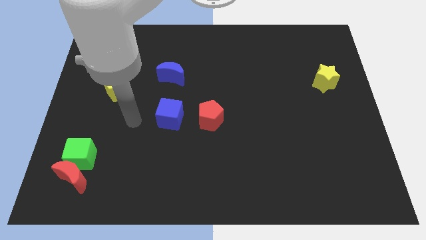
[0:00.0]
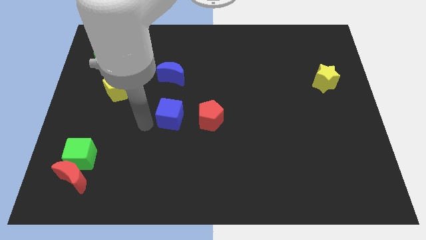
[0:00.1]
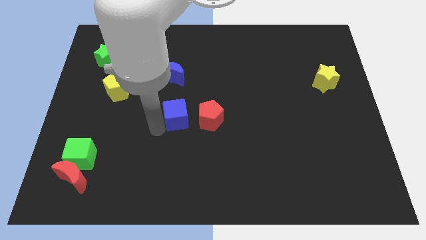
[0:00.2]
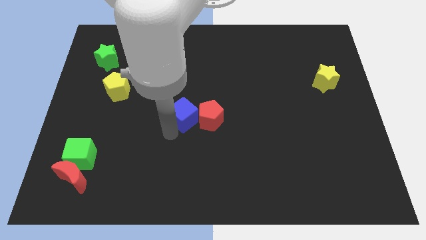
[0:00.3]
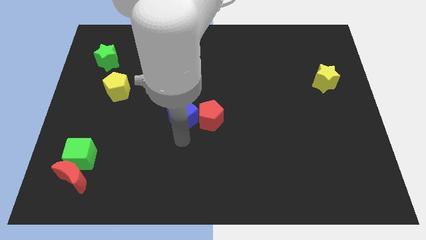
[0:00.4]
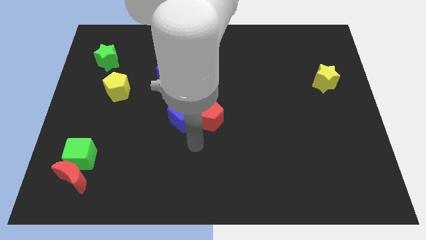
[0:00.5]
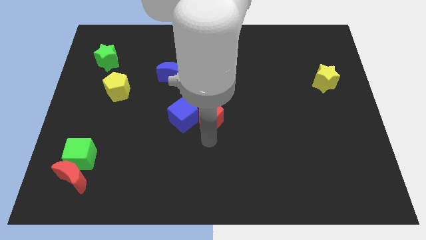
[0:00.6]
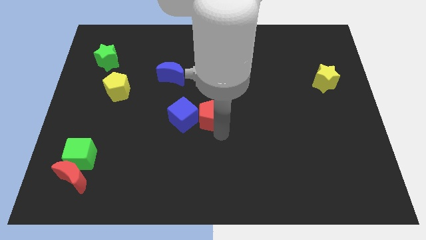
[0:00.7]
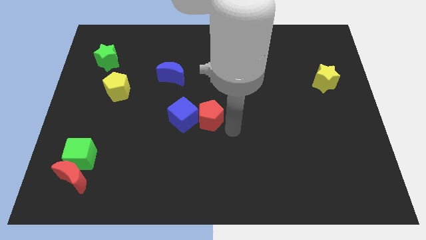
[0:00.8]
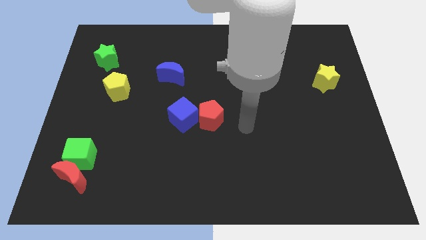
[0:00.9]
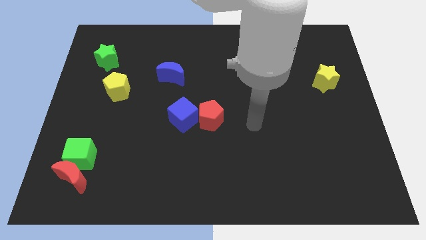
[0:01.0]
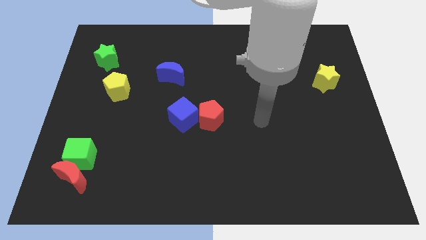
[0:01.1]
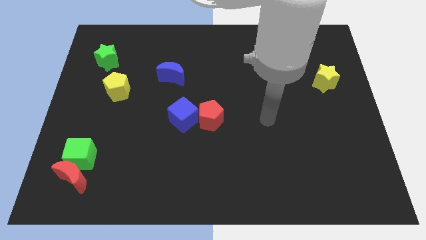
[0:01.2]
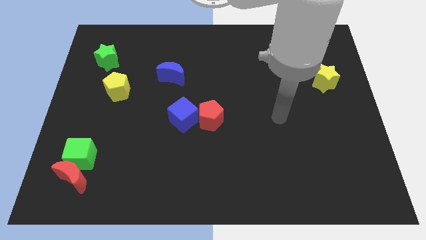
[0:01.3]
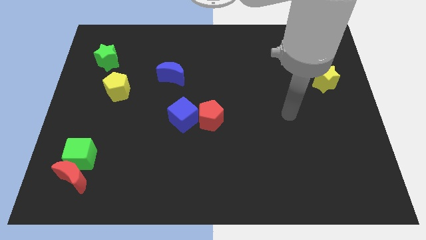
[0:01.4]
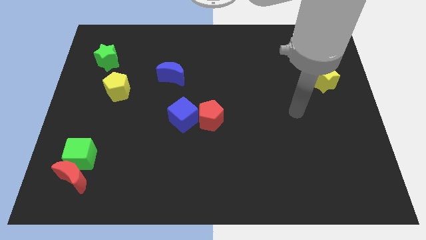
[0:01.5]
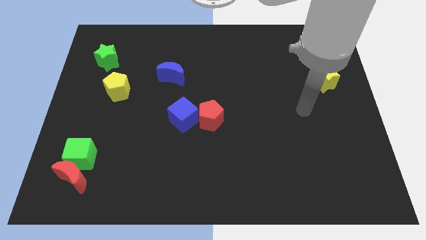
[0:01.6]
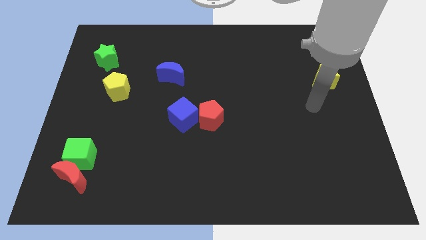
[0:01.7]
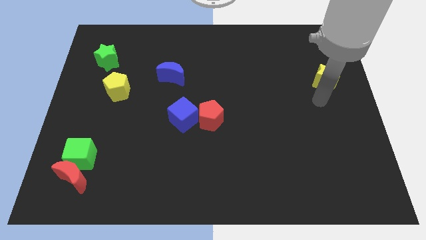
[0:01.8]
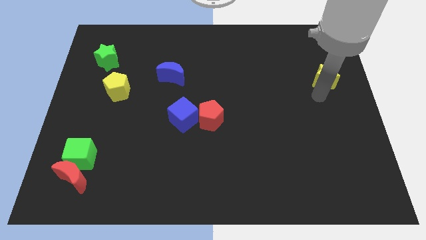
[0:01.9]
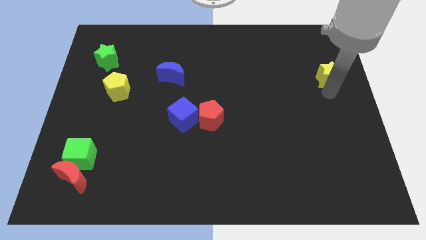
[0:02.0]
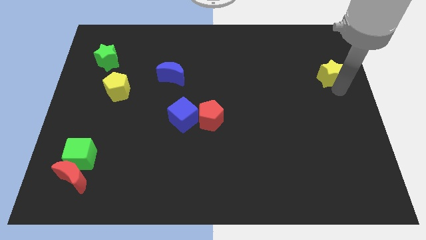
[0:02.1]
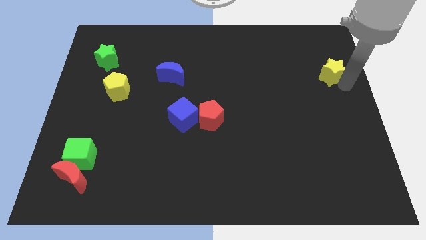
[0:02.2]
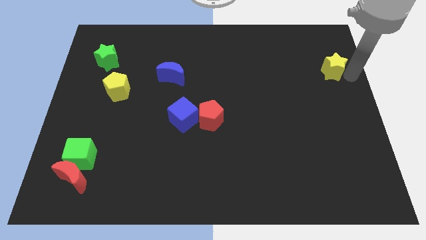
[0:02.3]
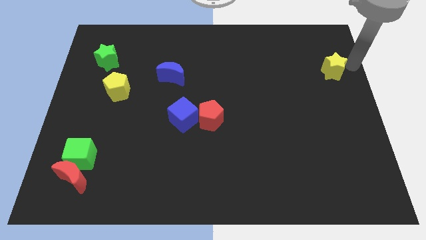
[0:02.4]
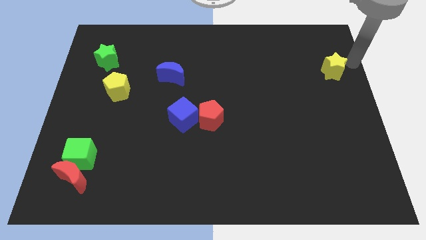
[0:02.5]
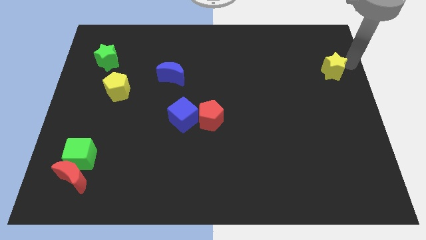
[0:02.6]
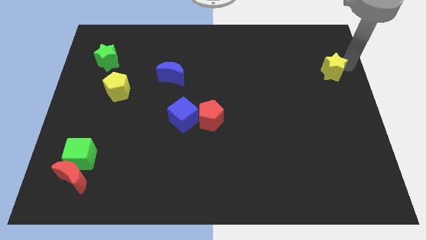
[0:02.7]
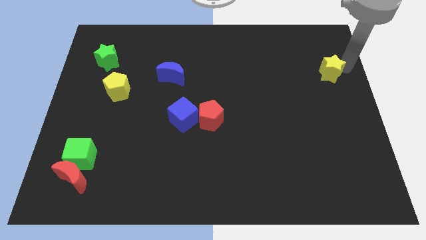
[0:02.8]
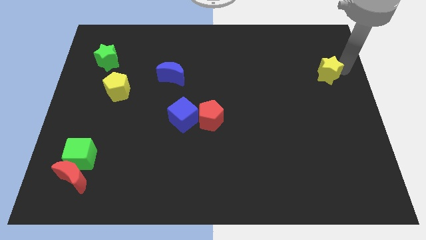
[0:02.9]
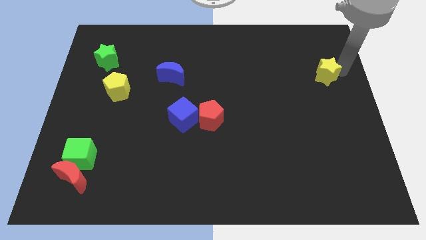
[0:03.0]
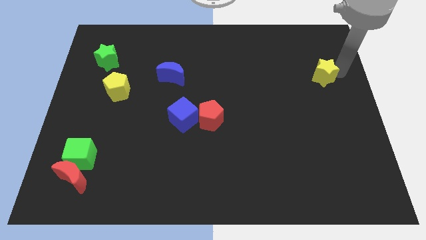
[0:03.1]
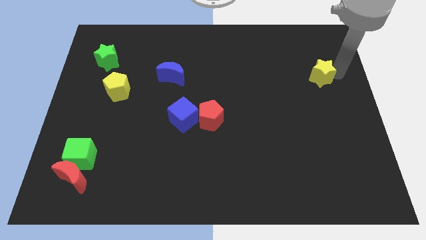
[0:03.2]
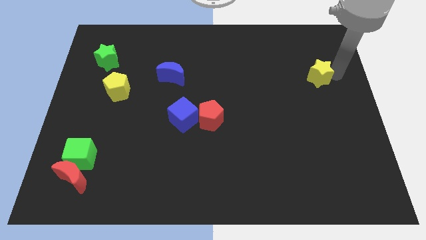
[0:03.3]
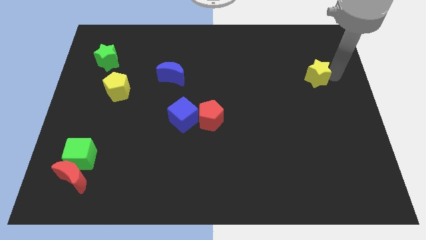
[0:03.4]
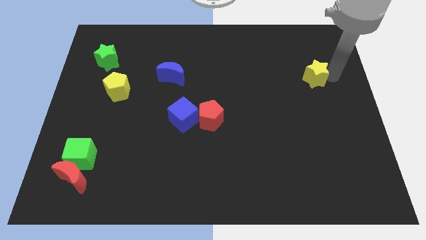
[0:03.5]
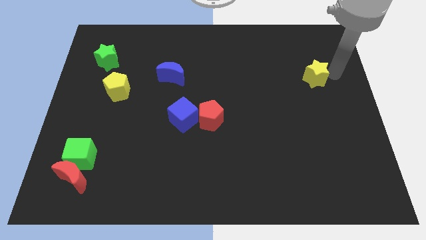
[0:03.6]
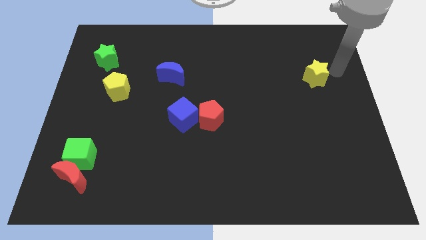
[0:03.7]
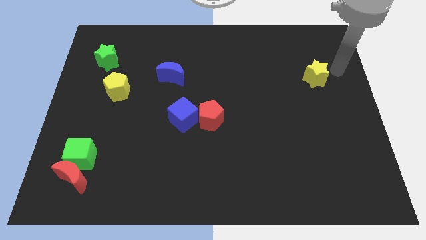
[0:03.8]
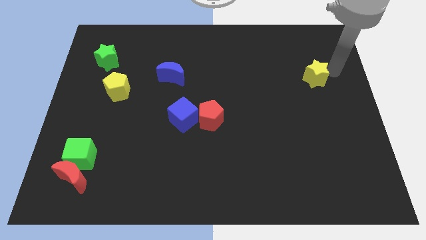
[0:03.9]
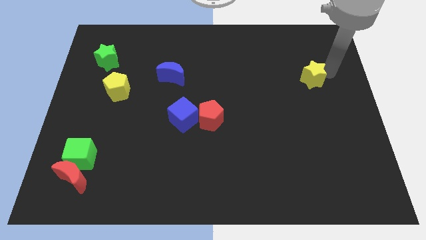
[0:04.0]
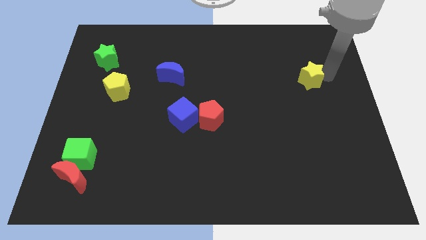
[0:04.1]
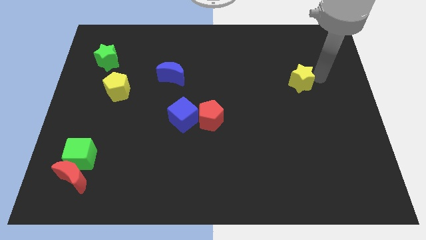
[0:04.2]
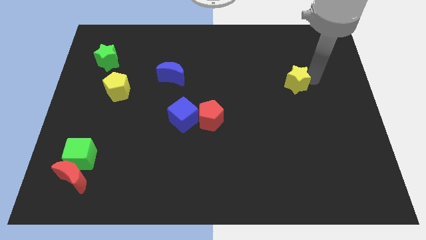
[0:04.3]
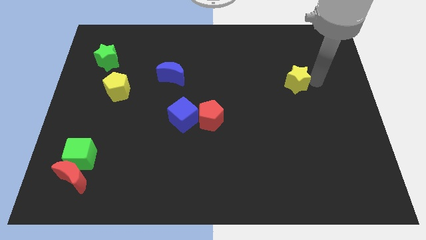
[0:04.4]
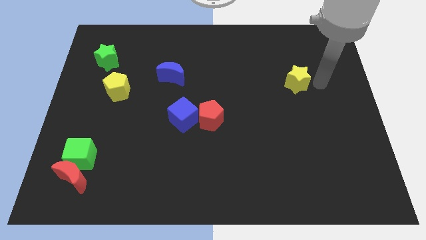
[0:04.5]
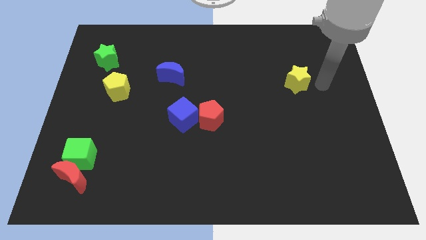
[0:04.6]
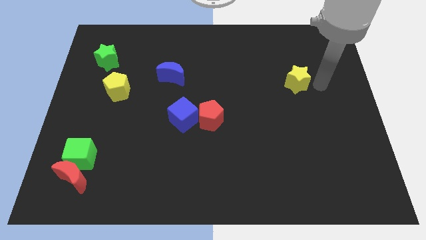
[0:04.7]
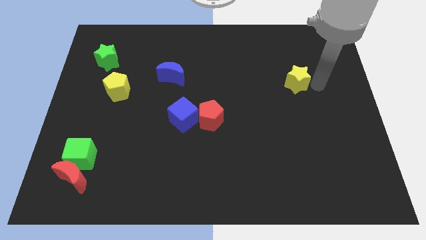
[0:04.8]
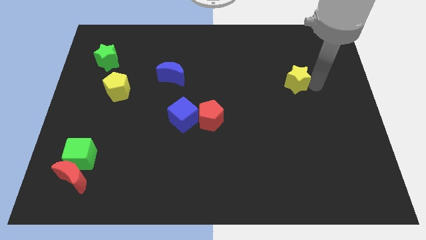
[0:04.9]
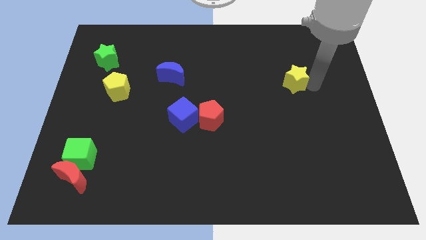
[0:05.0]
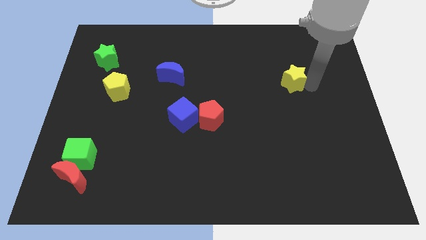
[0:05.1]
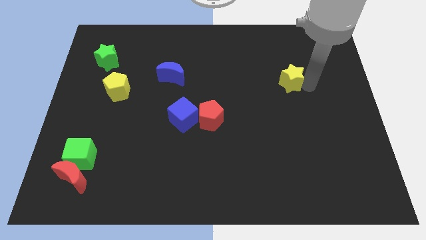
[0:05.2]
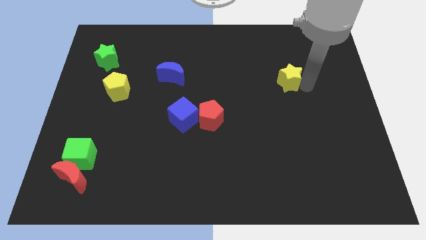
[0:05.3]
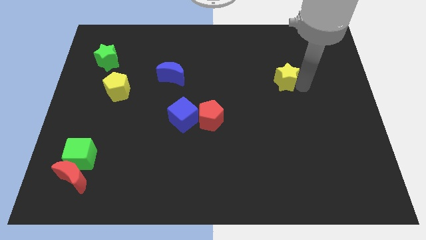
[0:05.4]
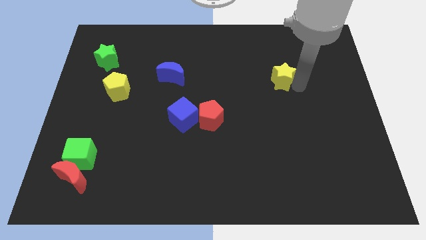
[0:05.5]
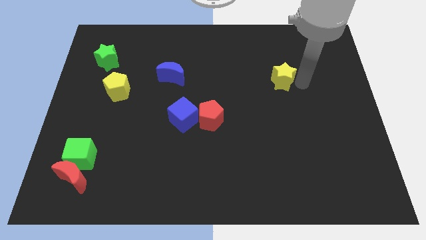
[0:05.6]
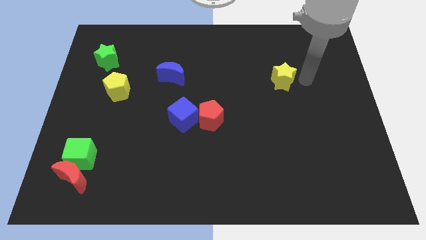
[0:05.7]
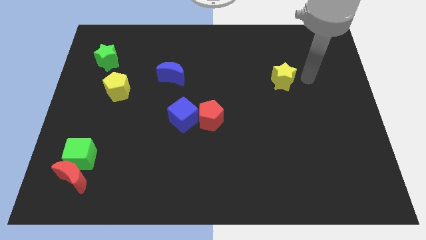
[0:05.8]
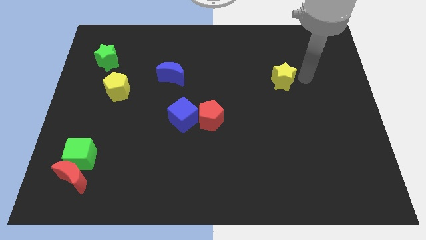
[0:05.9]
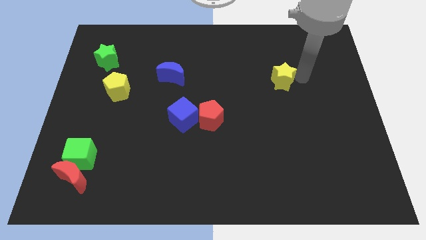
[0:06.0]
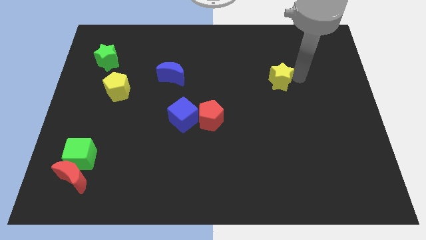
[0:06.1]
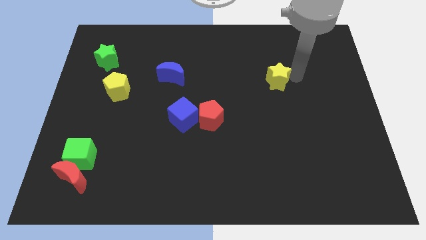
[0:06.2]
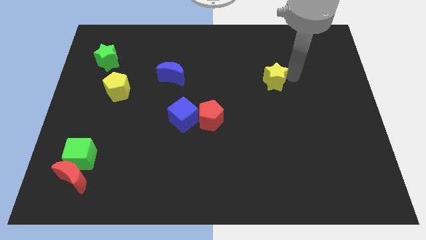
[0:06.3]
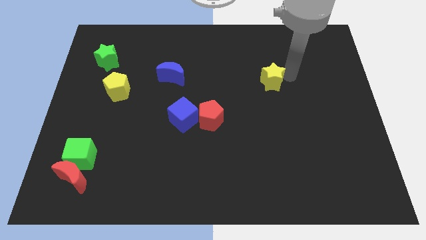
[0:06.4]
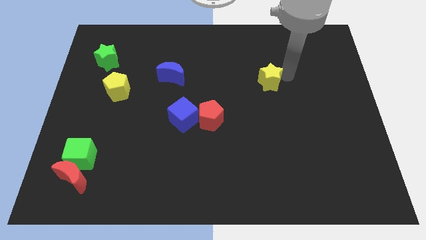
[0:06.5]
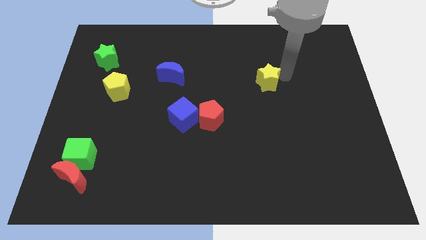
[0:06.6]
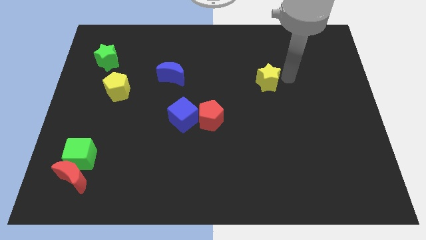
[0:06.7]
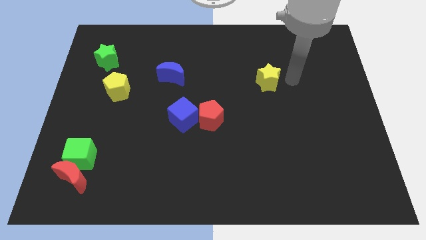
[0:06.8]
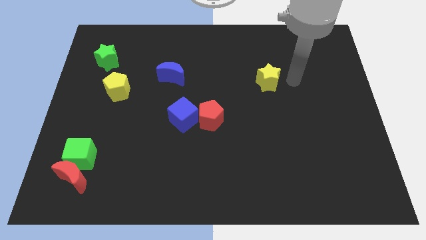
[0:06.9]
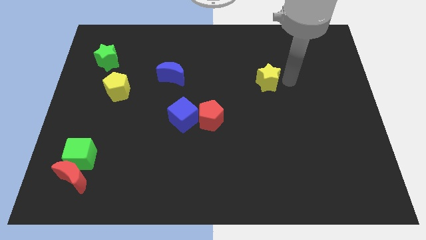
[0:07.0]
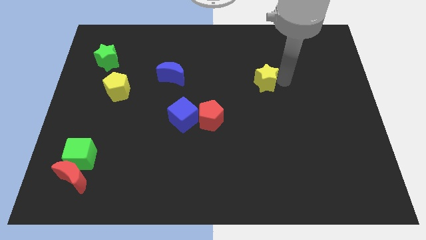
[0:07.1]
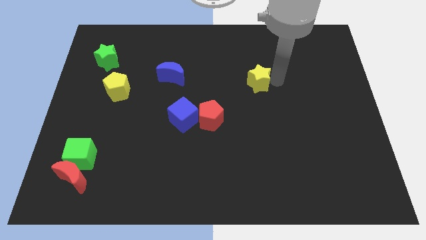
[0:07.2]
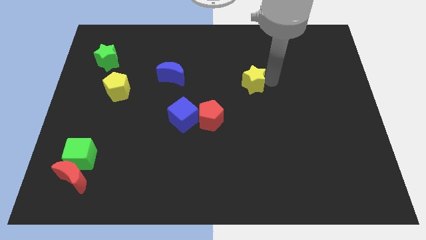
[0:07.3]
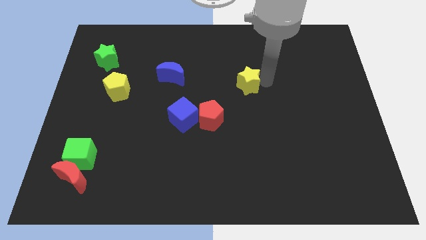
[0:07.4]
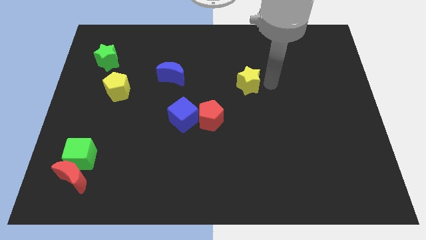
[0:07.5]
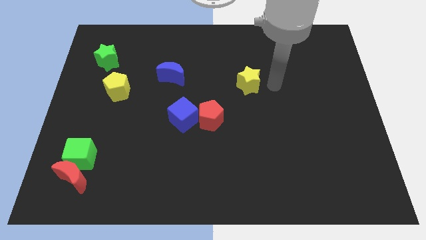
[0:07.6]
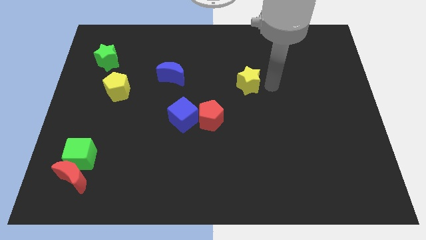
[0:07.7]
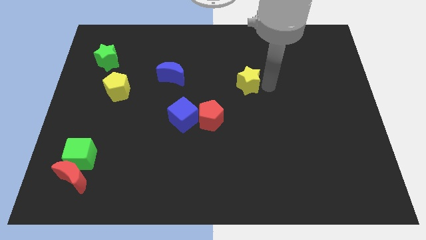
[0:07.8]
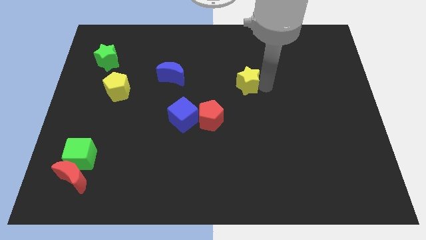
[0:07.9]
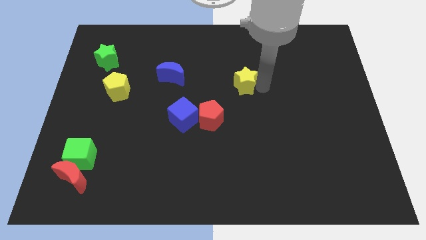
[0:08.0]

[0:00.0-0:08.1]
slide the yellow star left
